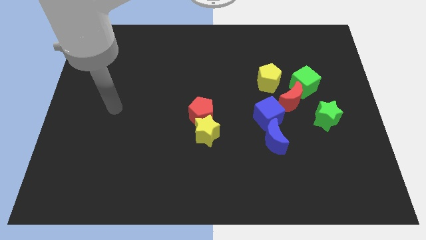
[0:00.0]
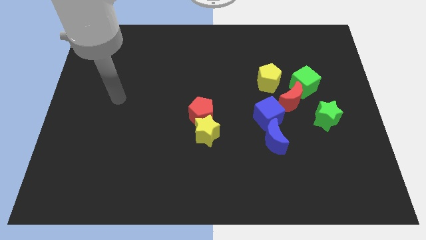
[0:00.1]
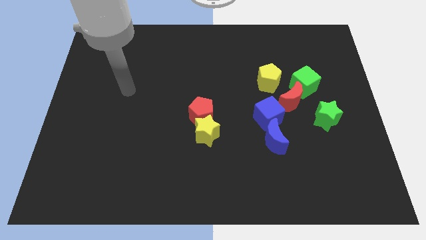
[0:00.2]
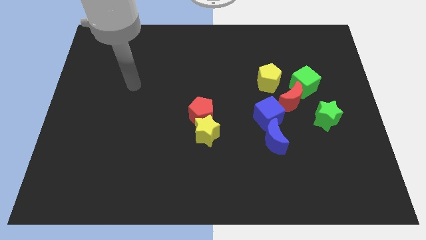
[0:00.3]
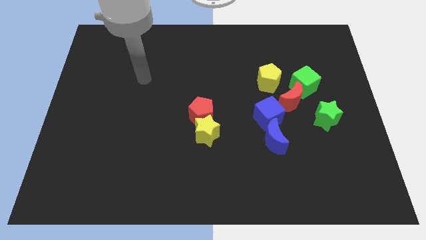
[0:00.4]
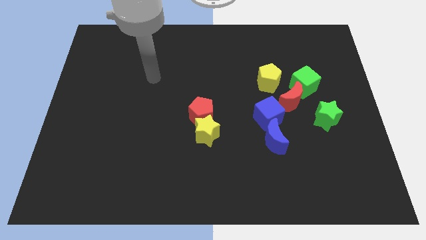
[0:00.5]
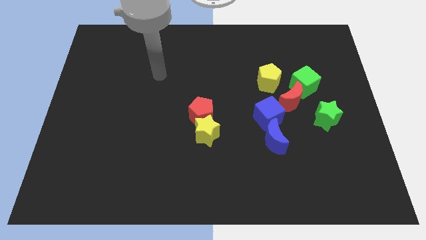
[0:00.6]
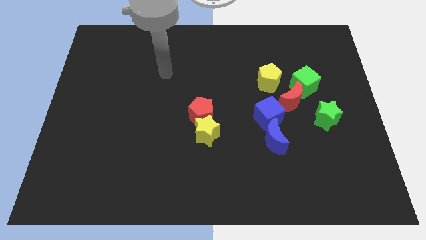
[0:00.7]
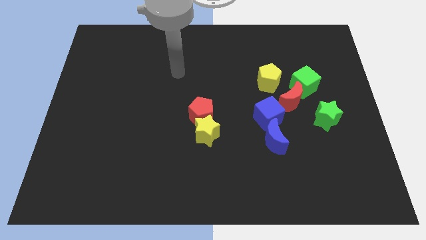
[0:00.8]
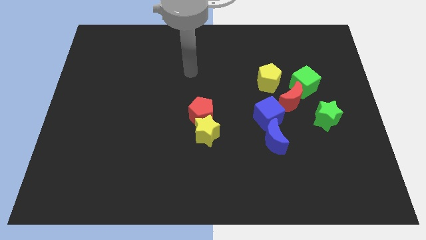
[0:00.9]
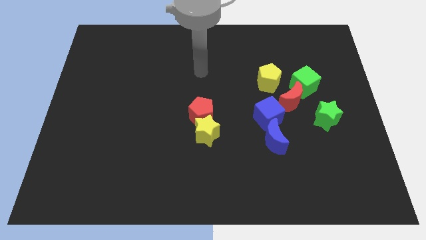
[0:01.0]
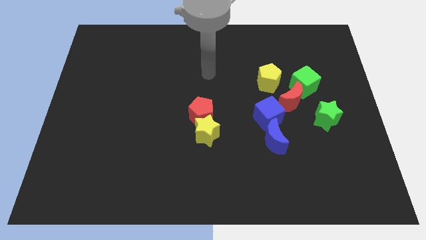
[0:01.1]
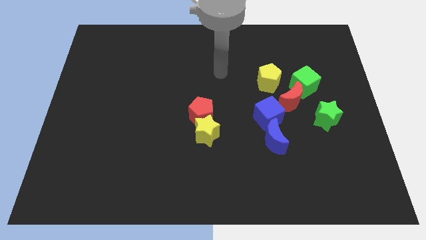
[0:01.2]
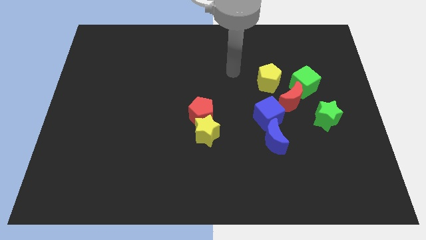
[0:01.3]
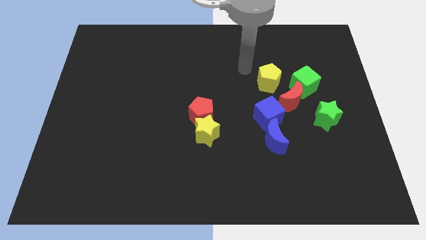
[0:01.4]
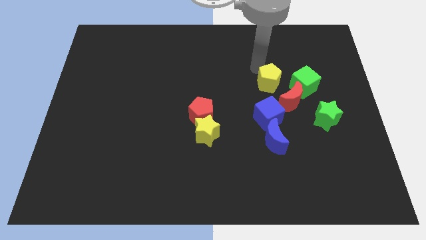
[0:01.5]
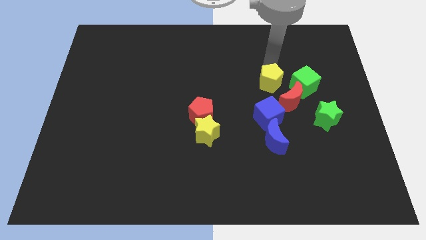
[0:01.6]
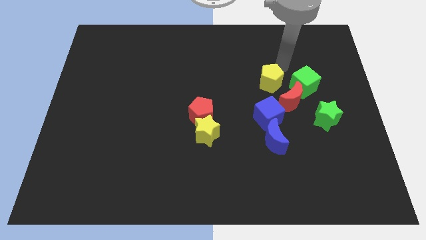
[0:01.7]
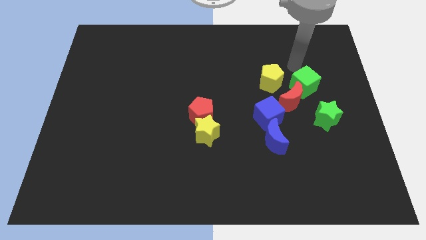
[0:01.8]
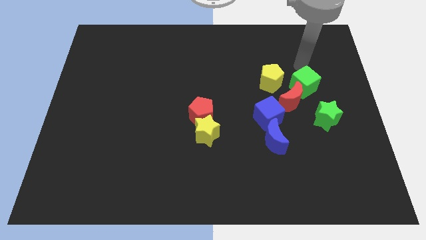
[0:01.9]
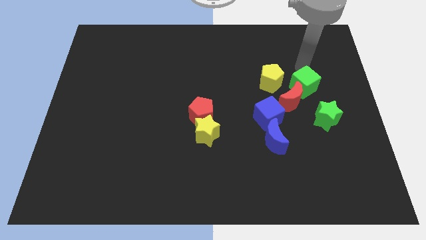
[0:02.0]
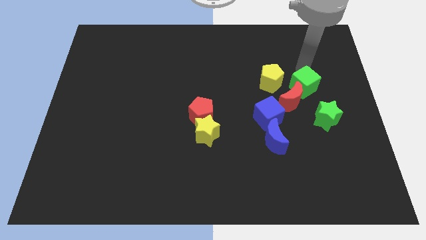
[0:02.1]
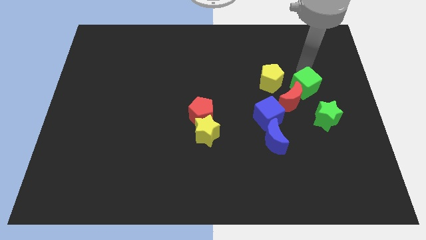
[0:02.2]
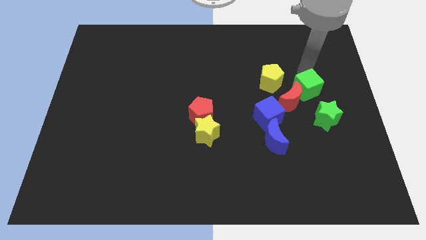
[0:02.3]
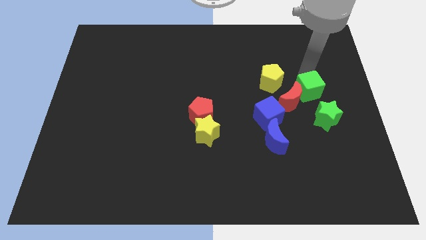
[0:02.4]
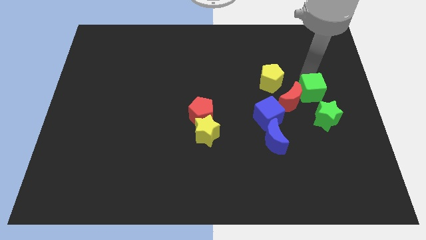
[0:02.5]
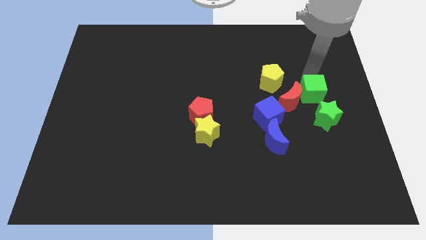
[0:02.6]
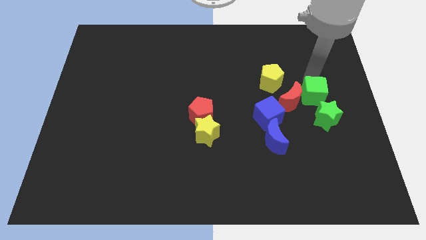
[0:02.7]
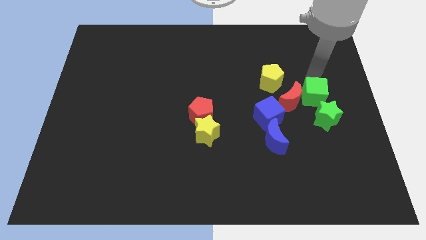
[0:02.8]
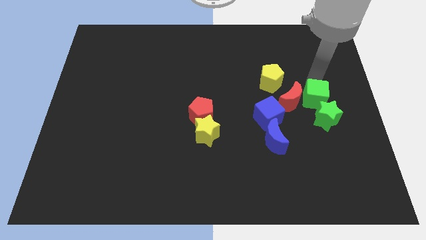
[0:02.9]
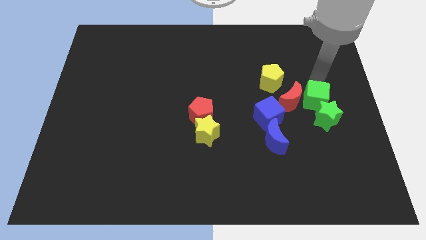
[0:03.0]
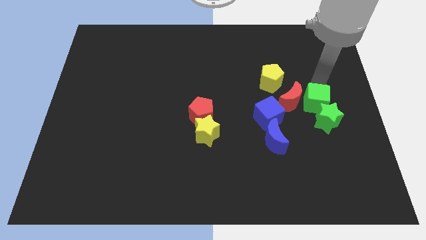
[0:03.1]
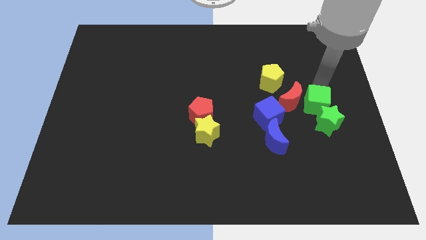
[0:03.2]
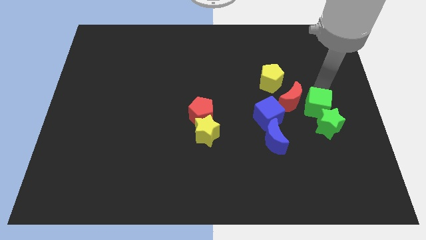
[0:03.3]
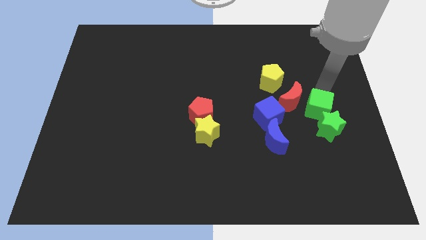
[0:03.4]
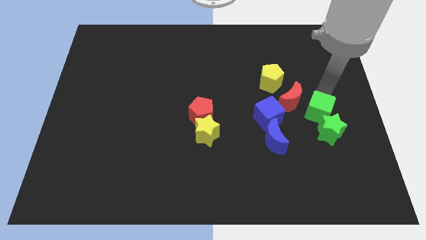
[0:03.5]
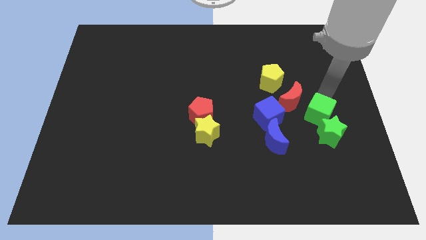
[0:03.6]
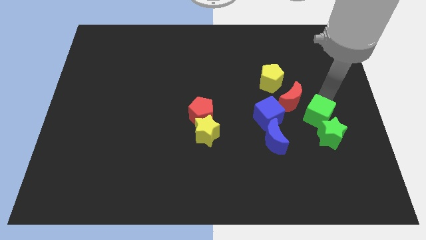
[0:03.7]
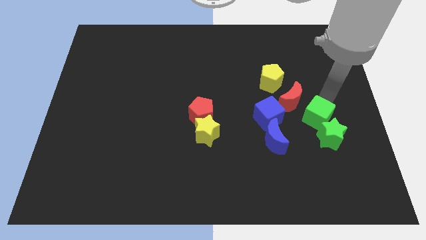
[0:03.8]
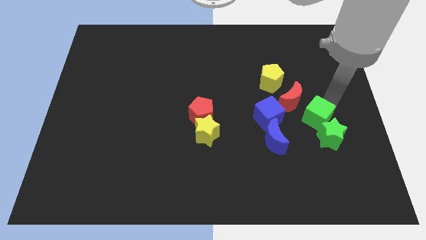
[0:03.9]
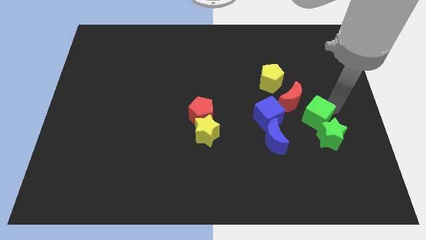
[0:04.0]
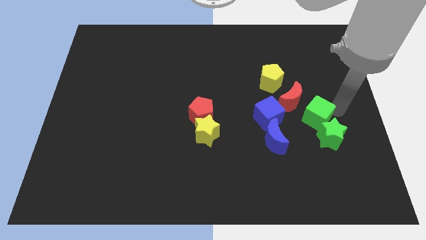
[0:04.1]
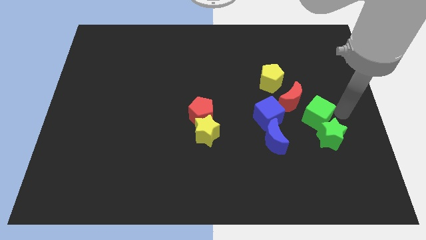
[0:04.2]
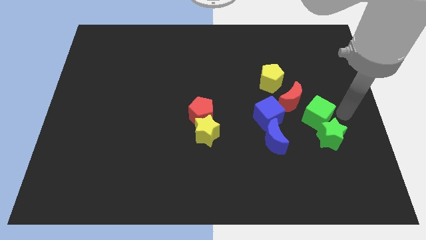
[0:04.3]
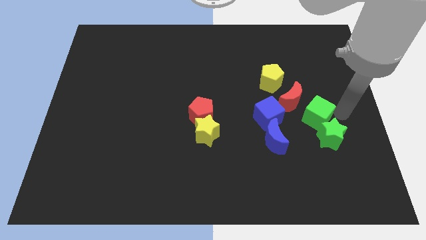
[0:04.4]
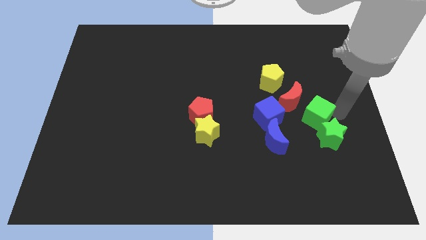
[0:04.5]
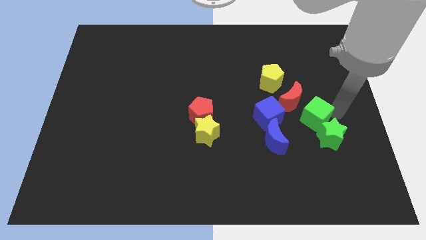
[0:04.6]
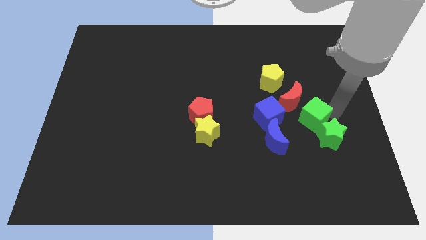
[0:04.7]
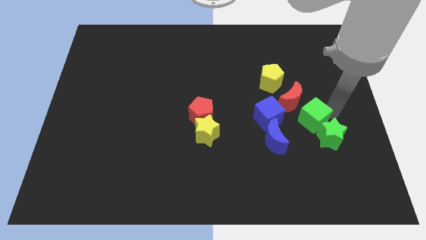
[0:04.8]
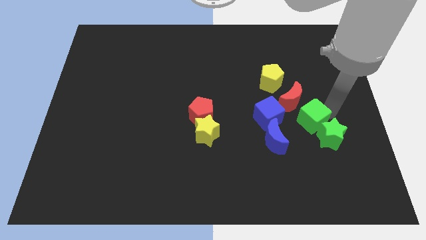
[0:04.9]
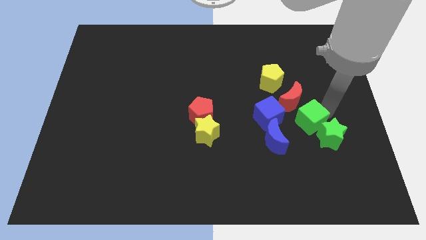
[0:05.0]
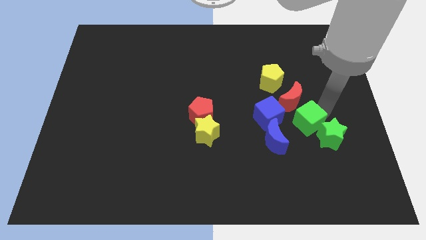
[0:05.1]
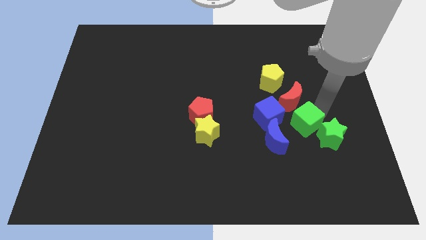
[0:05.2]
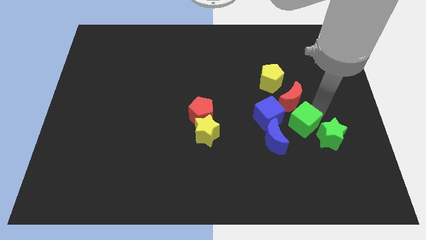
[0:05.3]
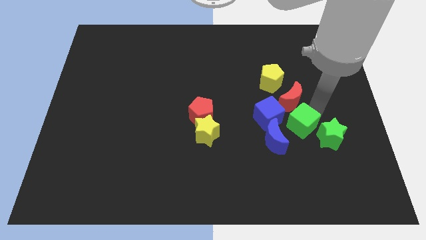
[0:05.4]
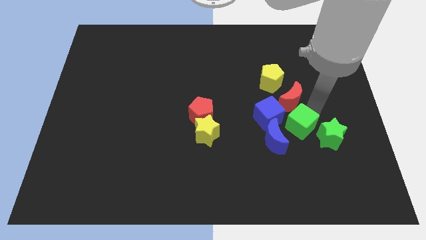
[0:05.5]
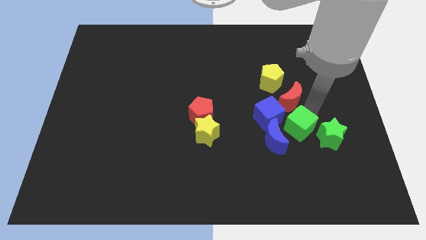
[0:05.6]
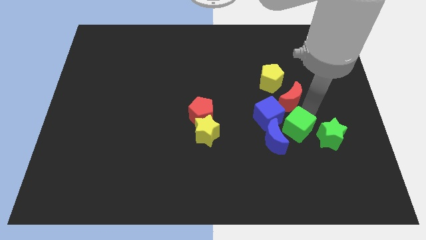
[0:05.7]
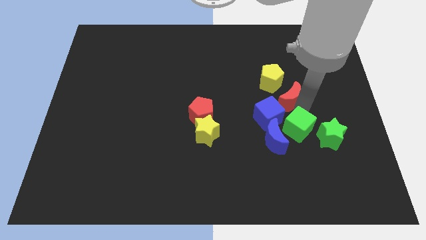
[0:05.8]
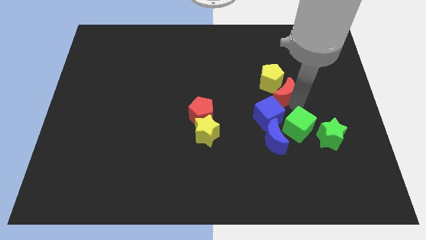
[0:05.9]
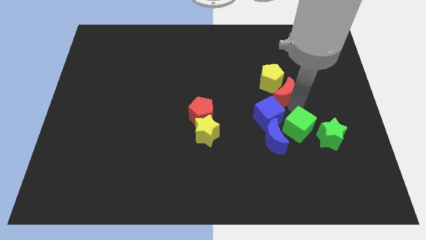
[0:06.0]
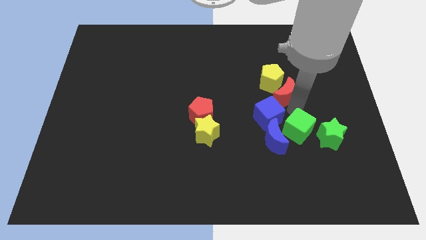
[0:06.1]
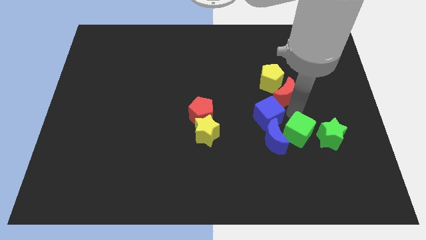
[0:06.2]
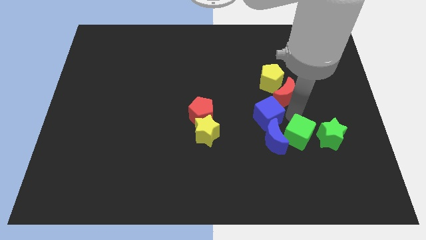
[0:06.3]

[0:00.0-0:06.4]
put the green cube to the bottom right of the blue moon
